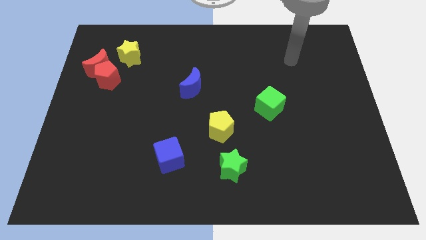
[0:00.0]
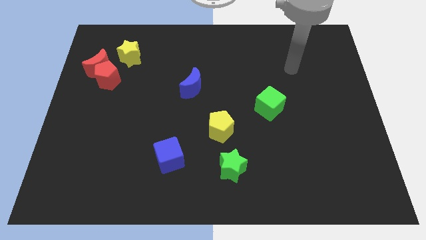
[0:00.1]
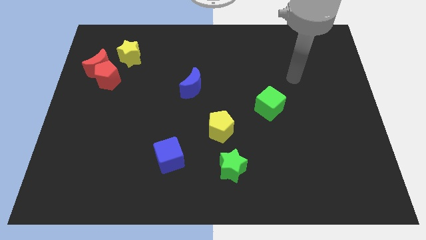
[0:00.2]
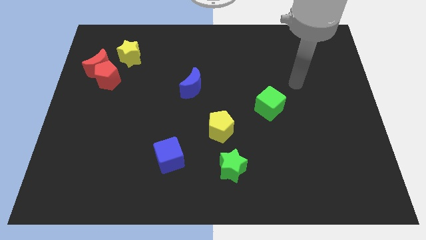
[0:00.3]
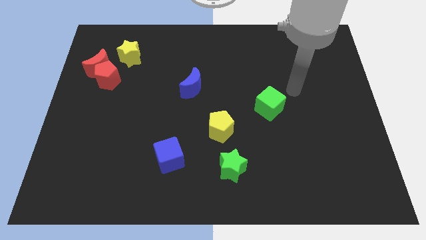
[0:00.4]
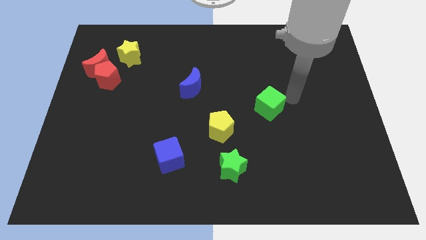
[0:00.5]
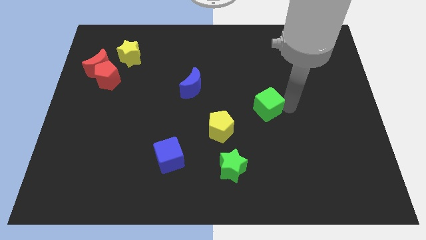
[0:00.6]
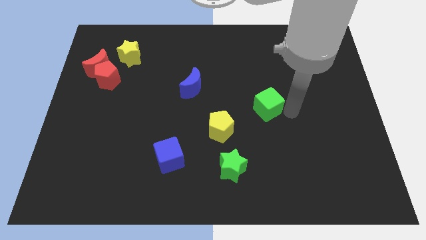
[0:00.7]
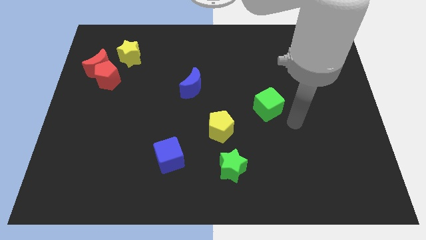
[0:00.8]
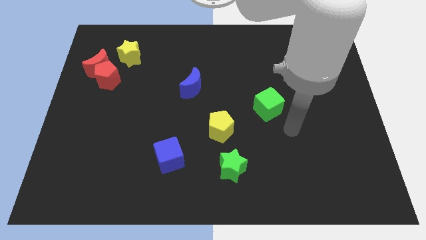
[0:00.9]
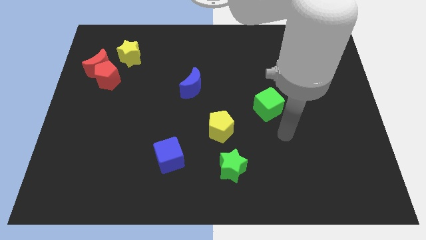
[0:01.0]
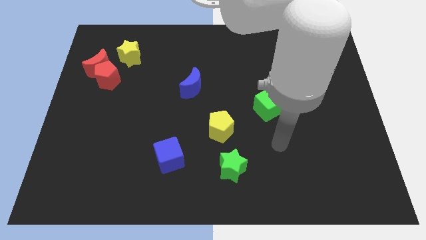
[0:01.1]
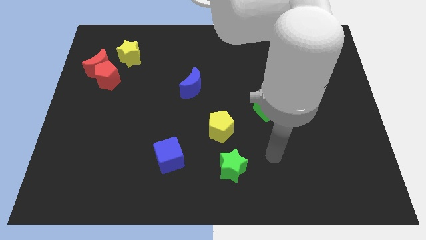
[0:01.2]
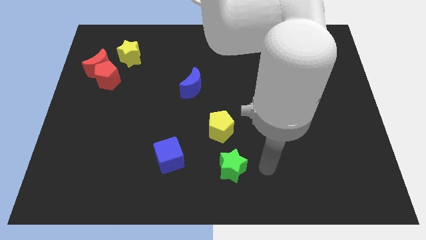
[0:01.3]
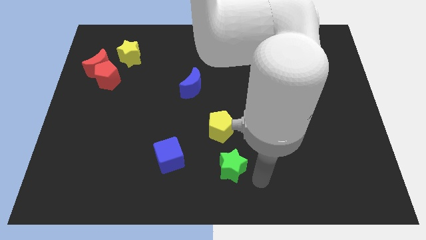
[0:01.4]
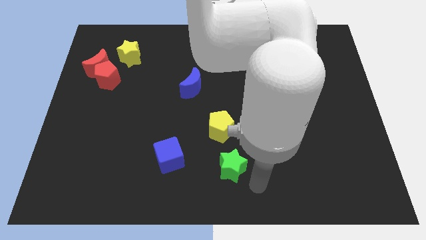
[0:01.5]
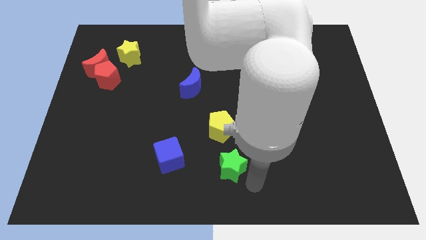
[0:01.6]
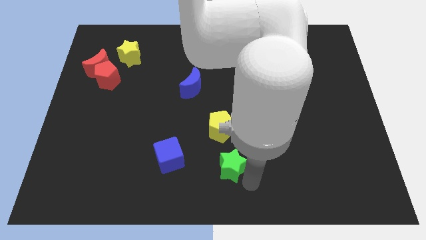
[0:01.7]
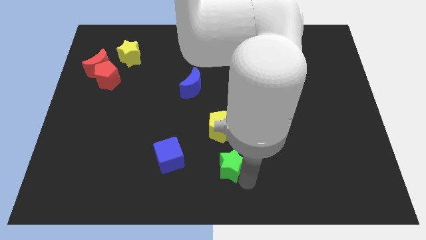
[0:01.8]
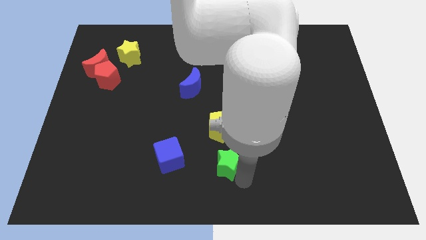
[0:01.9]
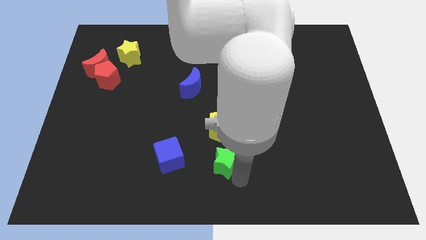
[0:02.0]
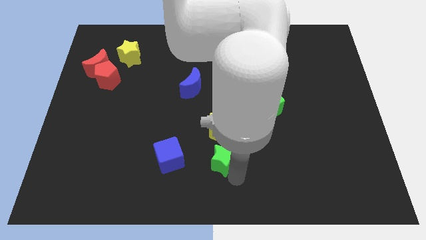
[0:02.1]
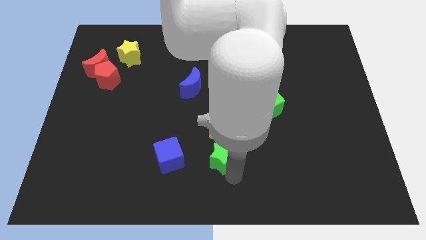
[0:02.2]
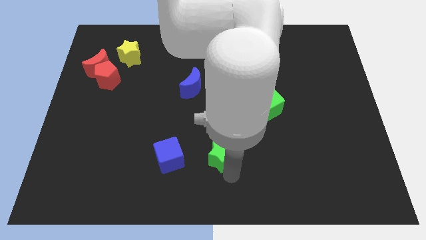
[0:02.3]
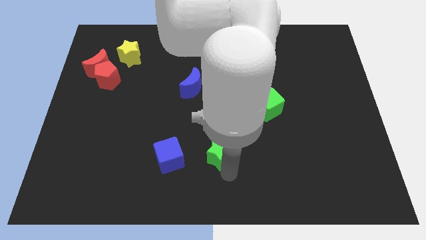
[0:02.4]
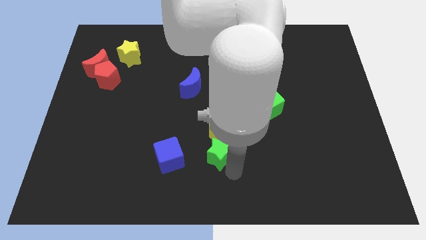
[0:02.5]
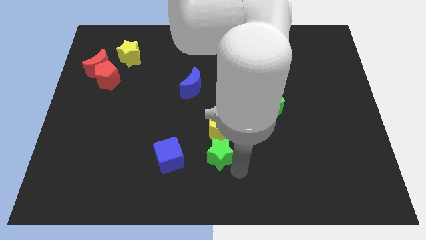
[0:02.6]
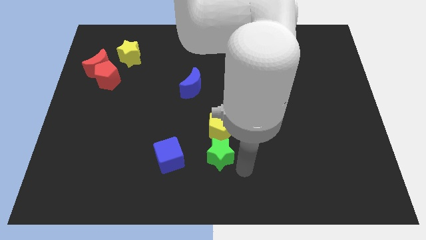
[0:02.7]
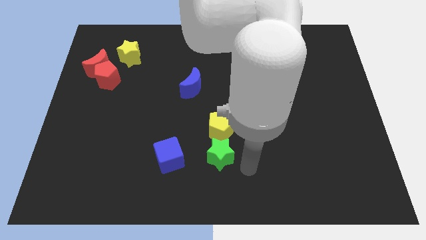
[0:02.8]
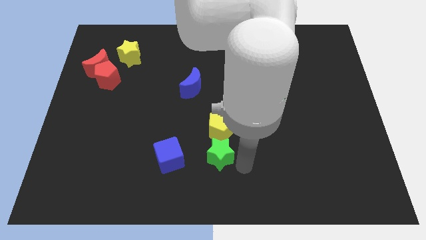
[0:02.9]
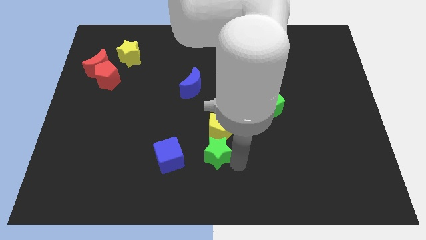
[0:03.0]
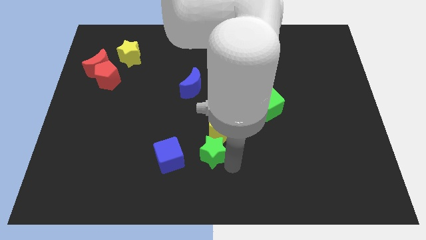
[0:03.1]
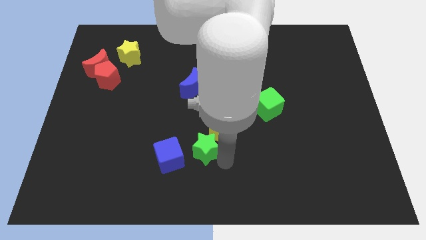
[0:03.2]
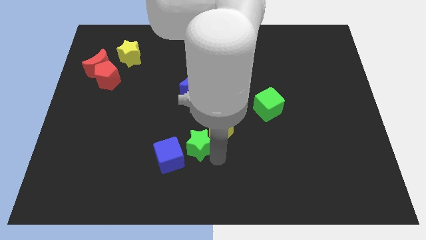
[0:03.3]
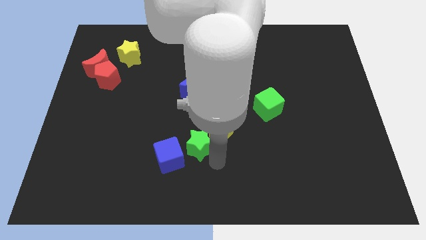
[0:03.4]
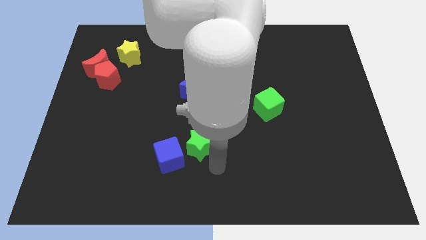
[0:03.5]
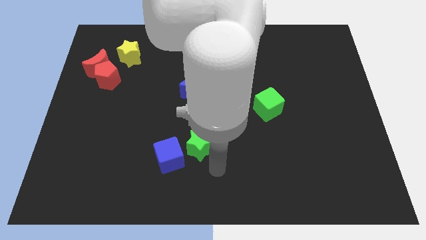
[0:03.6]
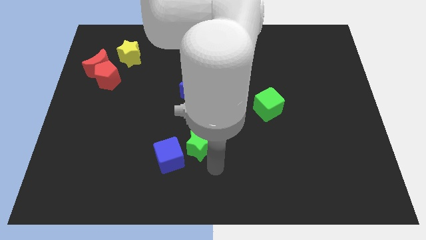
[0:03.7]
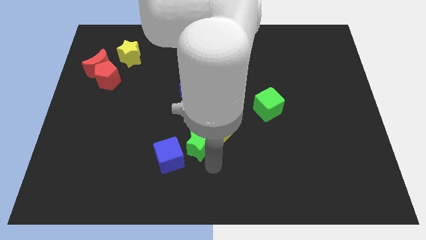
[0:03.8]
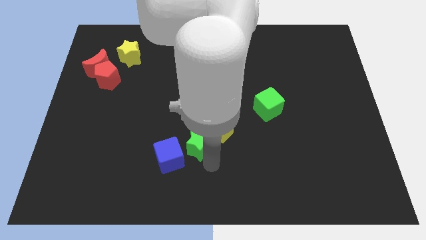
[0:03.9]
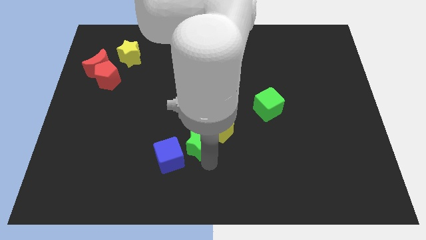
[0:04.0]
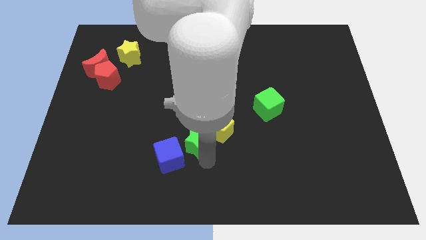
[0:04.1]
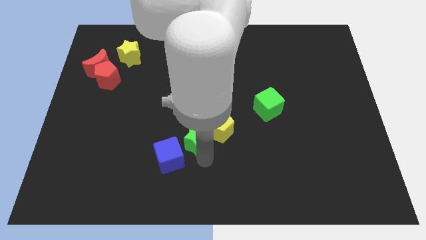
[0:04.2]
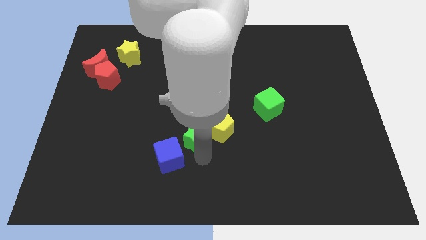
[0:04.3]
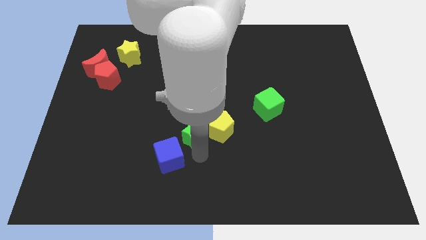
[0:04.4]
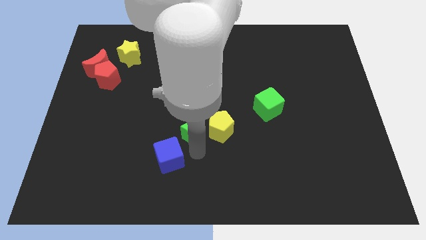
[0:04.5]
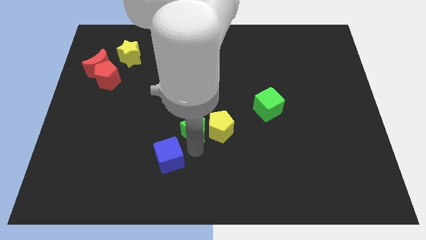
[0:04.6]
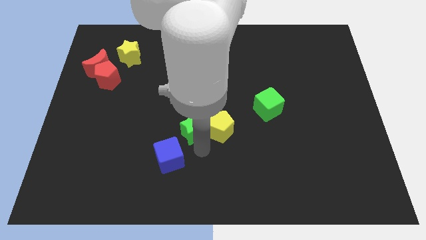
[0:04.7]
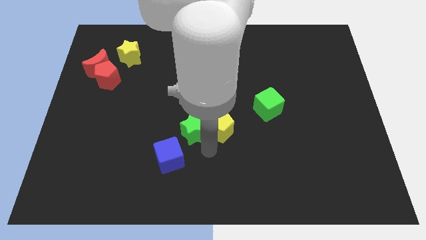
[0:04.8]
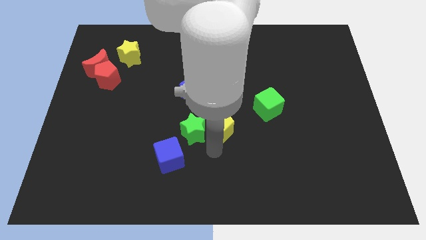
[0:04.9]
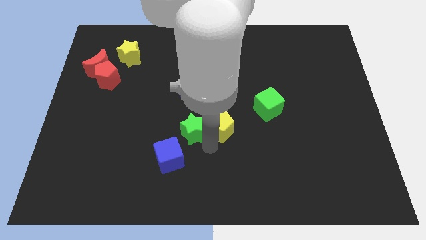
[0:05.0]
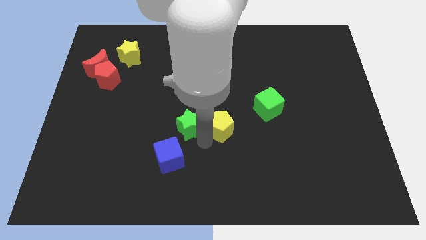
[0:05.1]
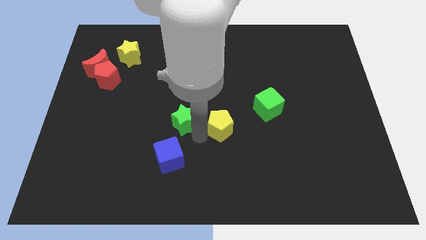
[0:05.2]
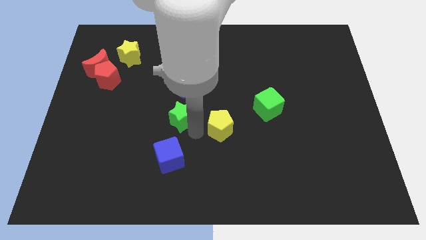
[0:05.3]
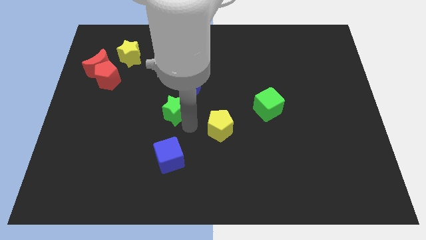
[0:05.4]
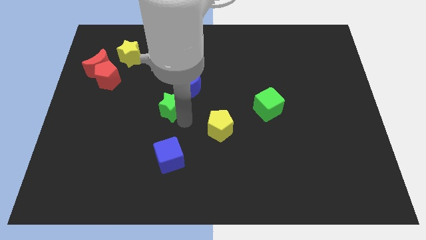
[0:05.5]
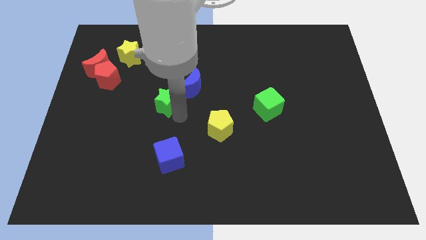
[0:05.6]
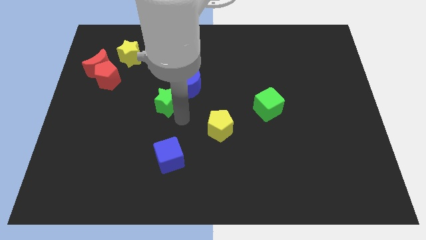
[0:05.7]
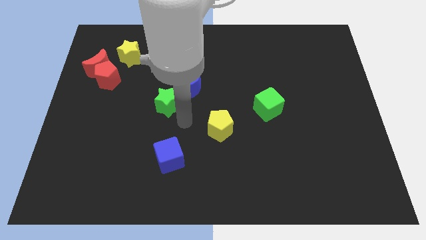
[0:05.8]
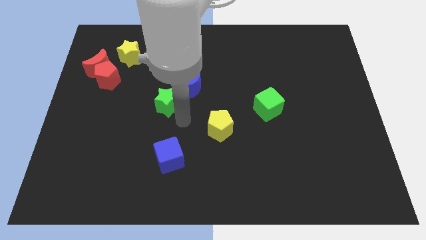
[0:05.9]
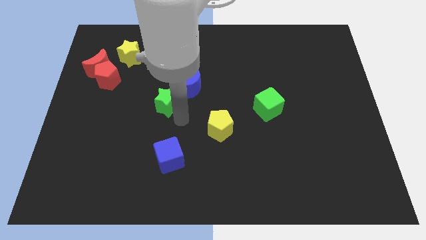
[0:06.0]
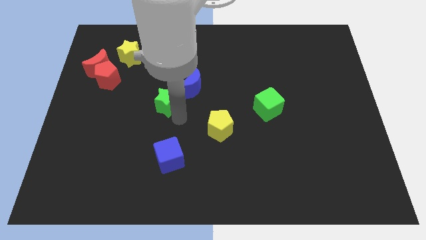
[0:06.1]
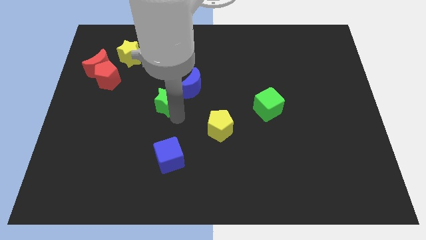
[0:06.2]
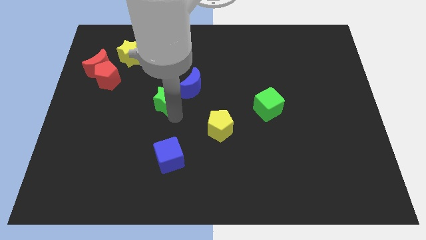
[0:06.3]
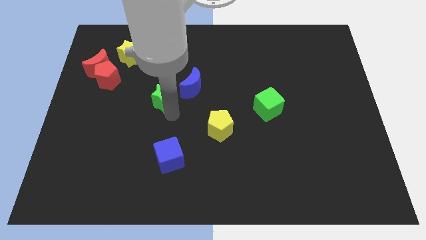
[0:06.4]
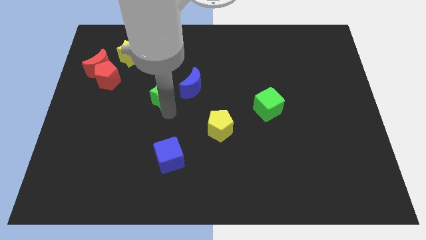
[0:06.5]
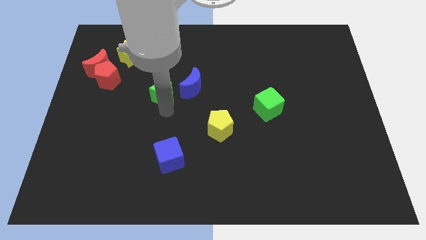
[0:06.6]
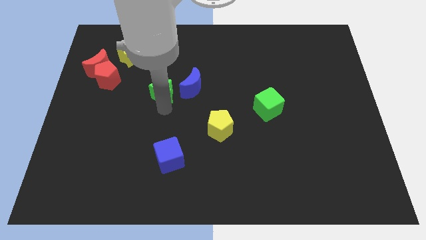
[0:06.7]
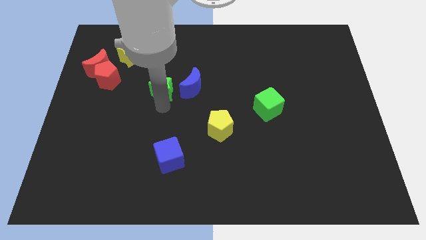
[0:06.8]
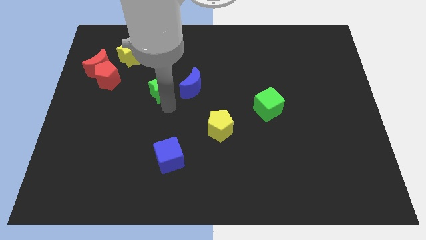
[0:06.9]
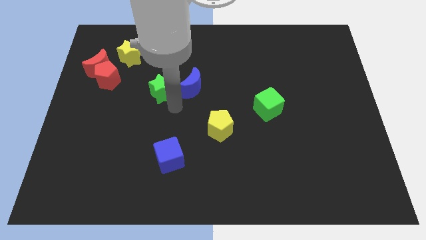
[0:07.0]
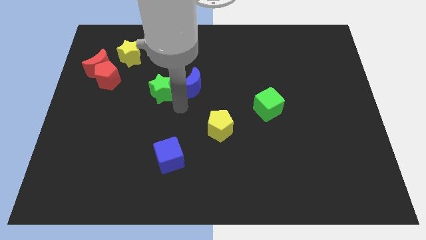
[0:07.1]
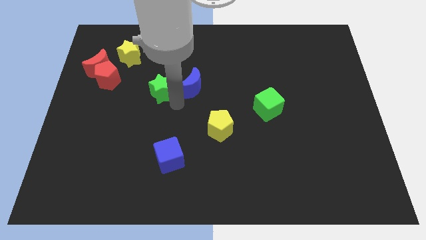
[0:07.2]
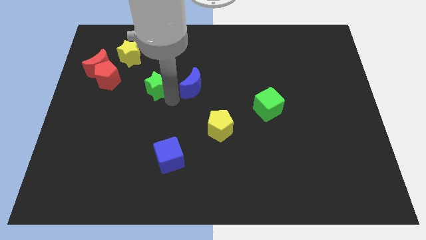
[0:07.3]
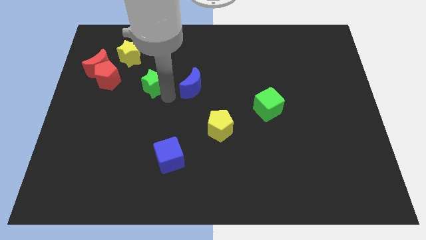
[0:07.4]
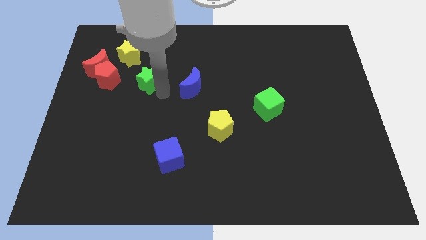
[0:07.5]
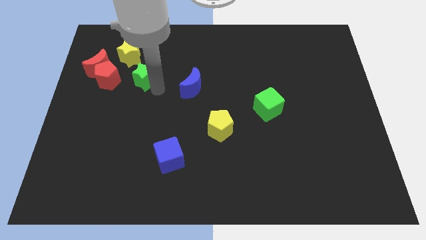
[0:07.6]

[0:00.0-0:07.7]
put the green star to the right side of the red moon
